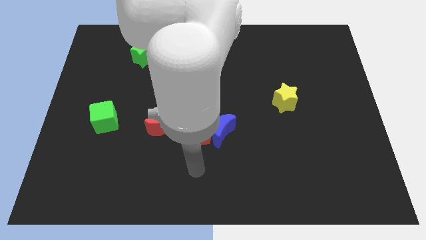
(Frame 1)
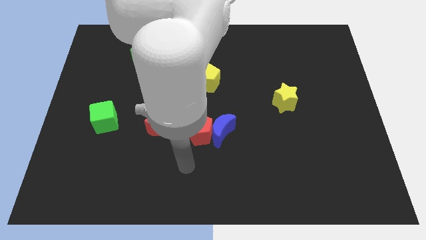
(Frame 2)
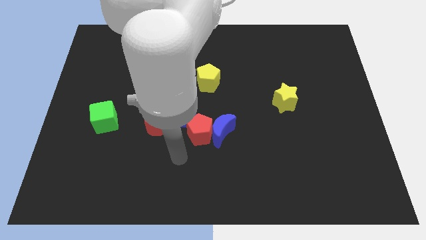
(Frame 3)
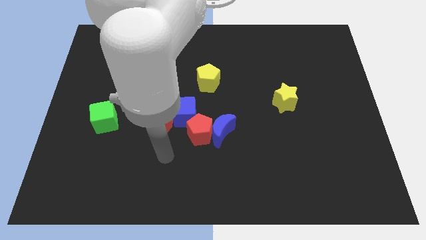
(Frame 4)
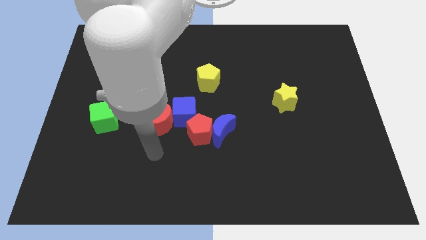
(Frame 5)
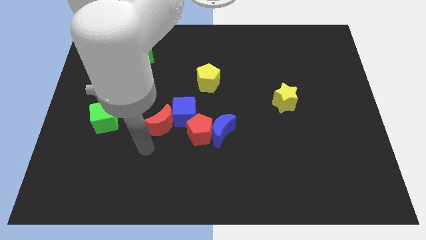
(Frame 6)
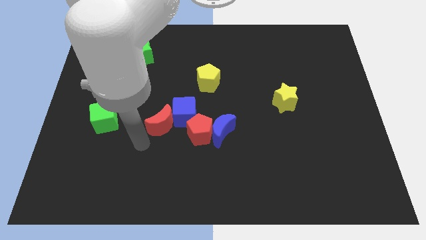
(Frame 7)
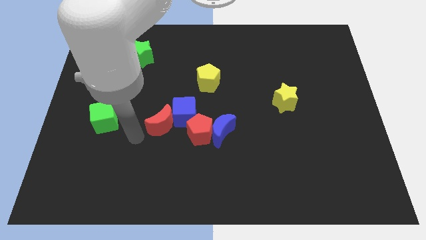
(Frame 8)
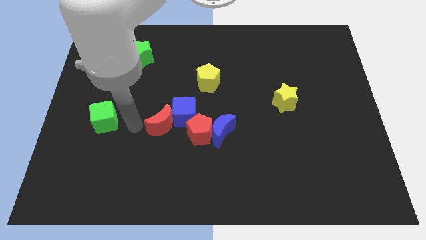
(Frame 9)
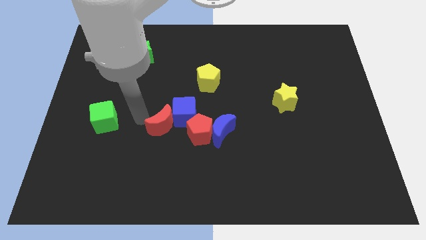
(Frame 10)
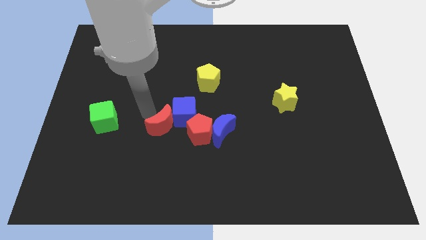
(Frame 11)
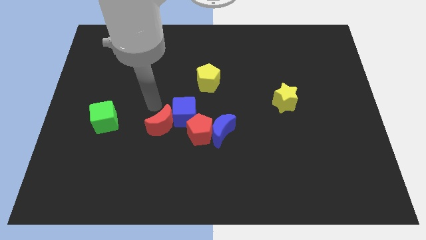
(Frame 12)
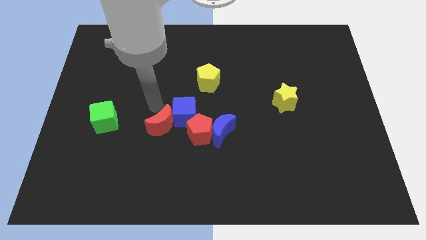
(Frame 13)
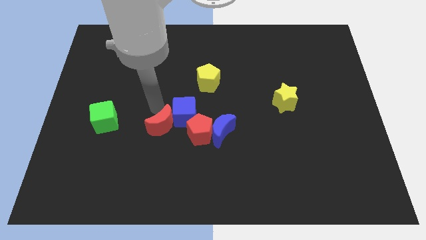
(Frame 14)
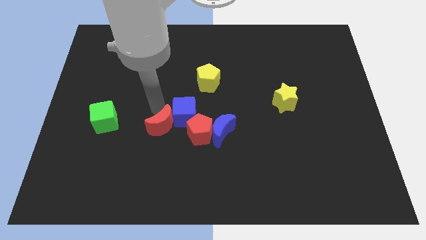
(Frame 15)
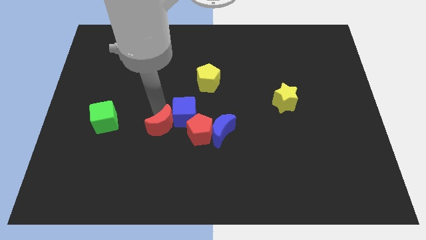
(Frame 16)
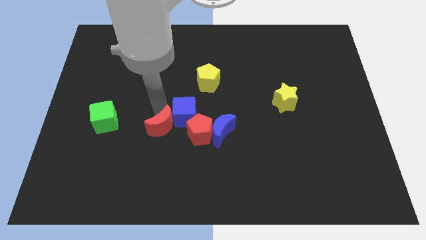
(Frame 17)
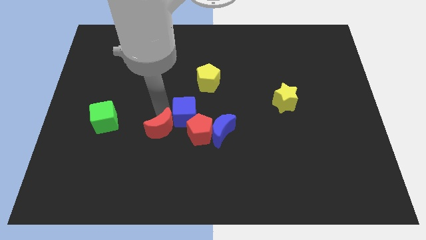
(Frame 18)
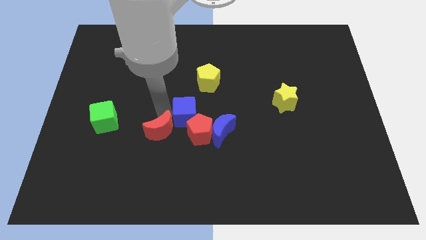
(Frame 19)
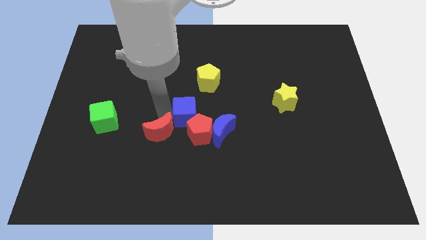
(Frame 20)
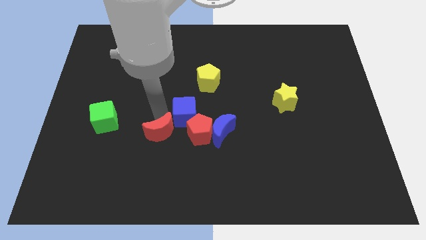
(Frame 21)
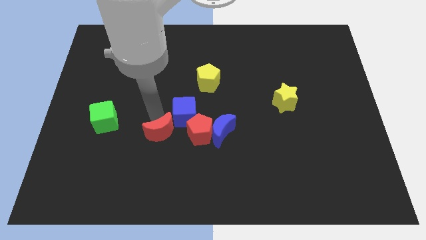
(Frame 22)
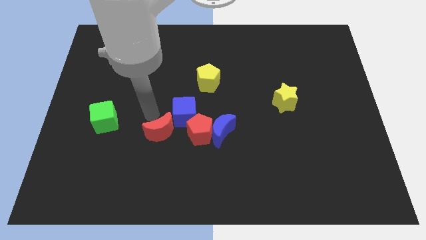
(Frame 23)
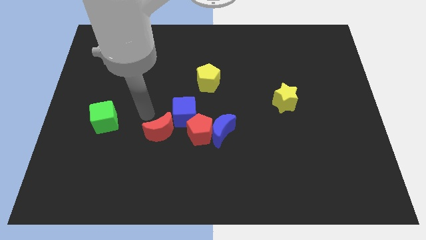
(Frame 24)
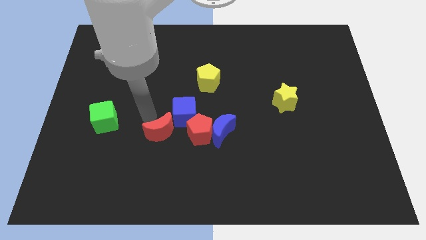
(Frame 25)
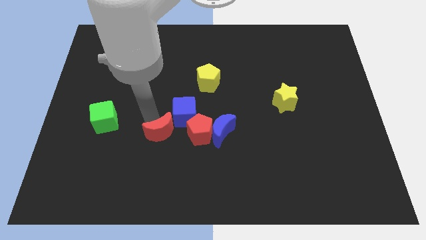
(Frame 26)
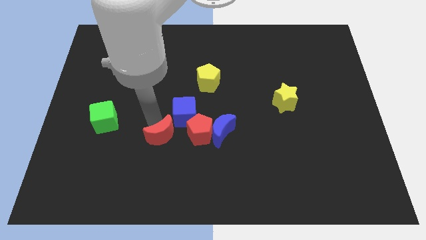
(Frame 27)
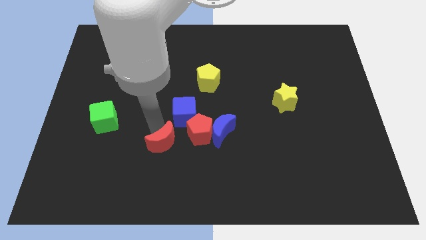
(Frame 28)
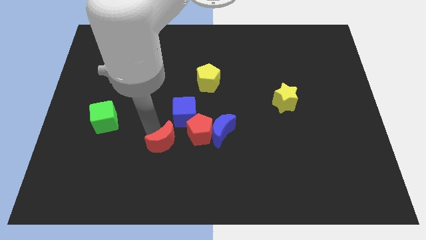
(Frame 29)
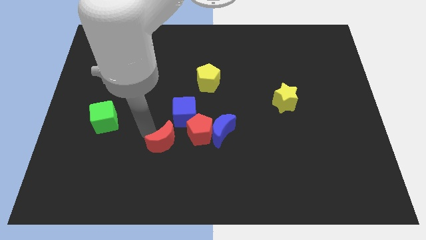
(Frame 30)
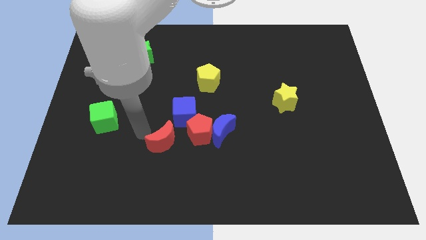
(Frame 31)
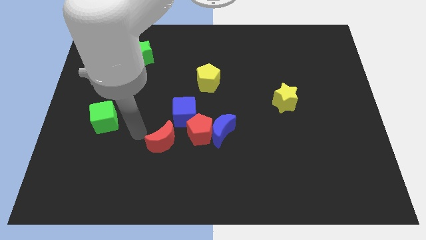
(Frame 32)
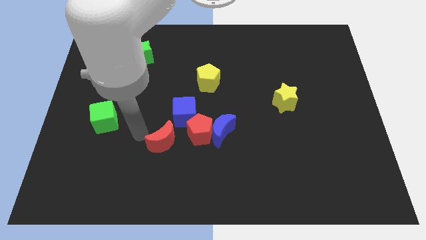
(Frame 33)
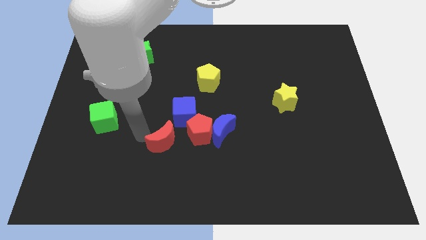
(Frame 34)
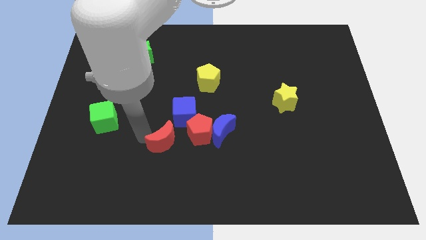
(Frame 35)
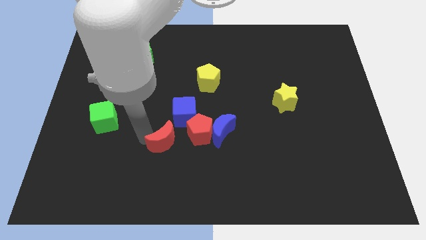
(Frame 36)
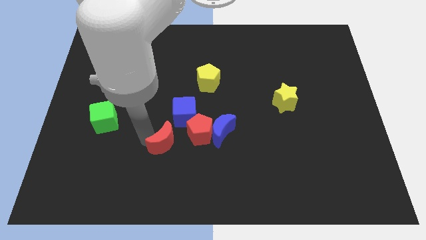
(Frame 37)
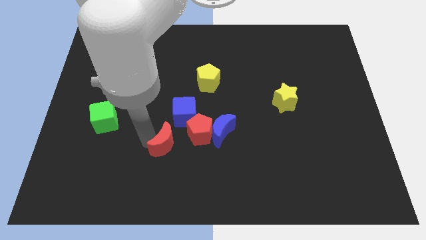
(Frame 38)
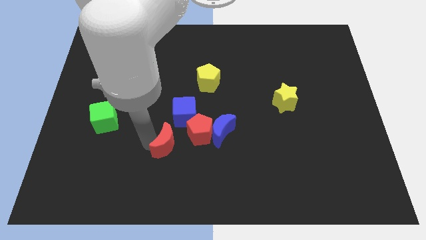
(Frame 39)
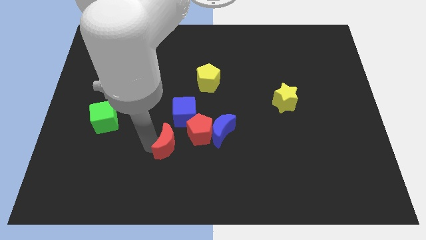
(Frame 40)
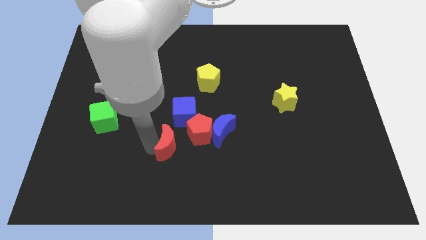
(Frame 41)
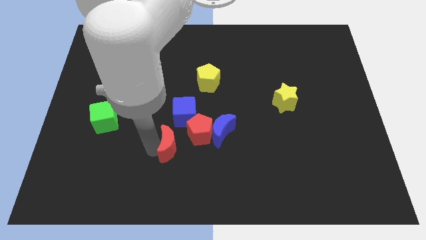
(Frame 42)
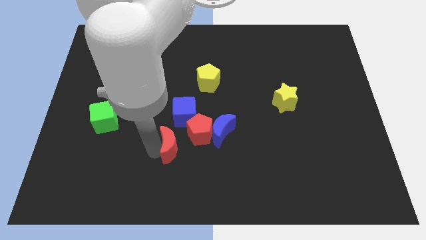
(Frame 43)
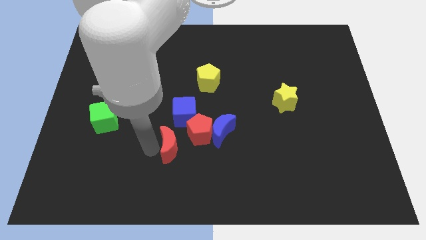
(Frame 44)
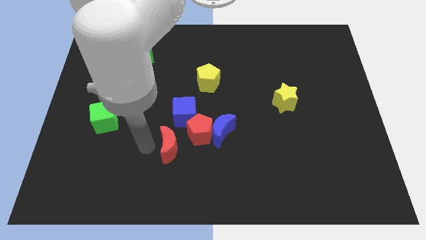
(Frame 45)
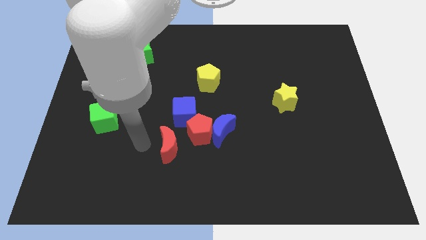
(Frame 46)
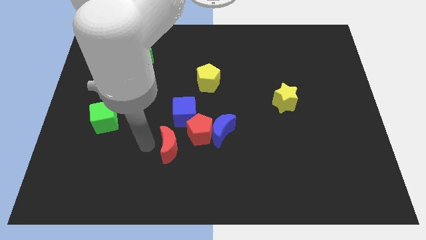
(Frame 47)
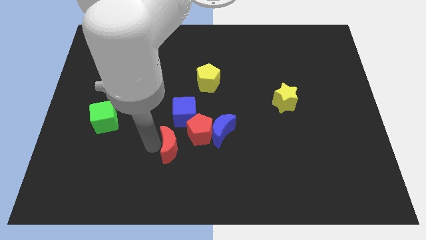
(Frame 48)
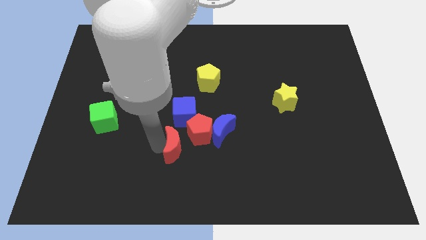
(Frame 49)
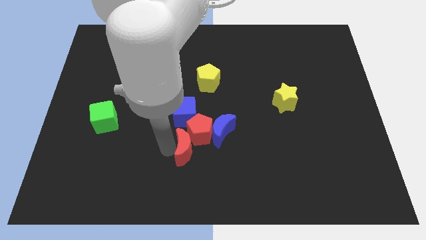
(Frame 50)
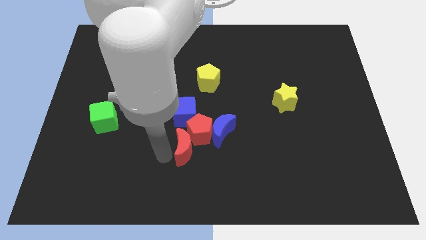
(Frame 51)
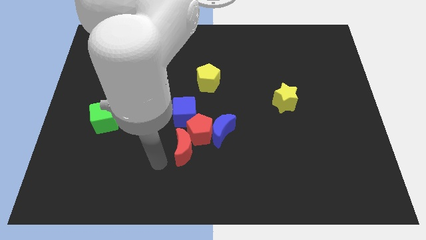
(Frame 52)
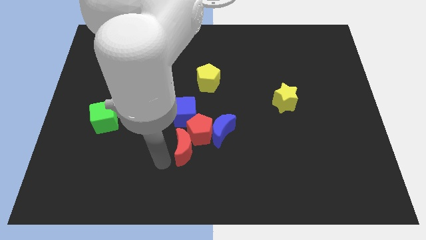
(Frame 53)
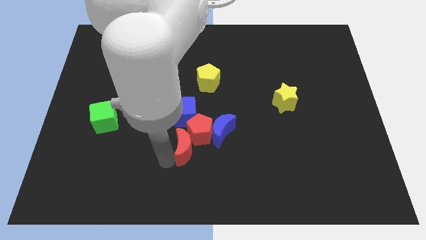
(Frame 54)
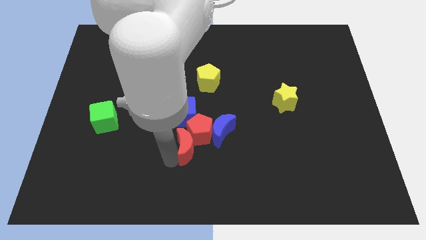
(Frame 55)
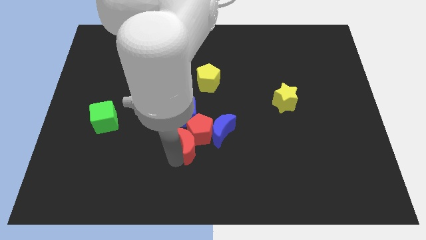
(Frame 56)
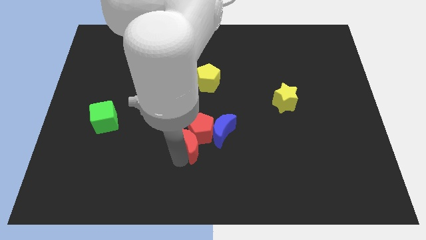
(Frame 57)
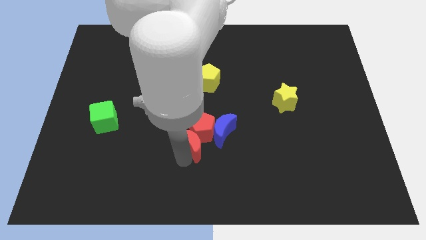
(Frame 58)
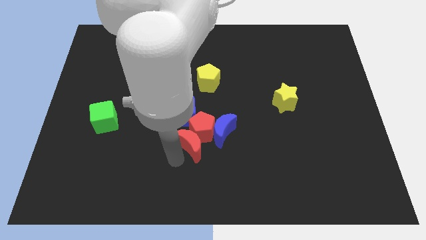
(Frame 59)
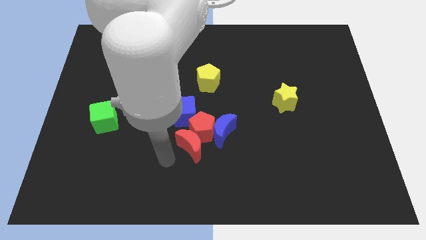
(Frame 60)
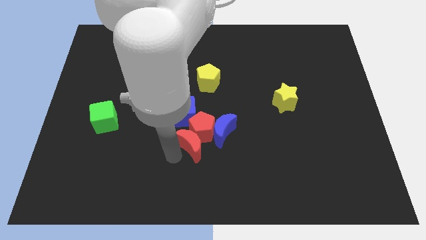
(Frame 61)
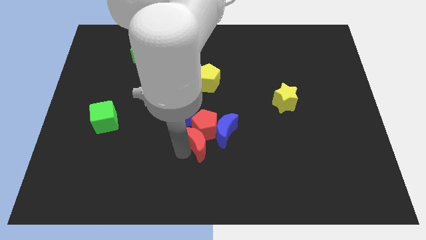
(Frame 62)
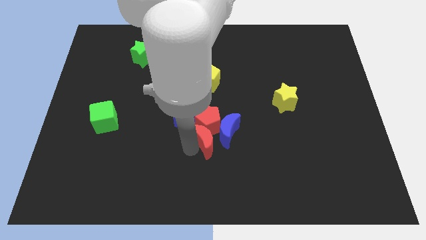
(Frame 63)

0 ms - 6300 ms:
move the red moon towards the blue moon
